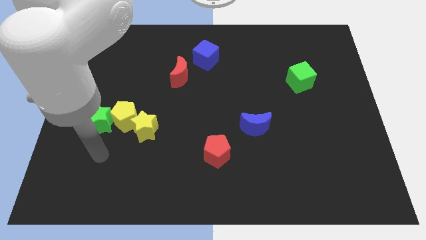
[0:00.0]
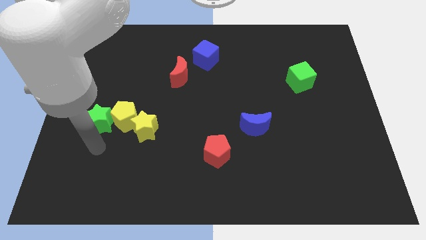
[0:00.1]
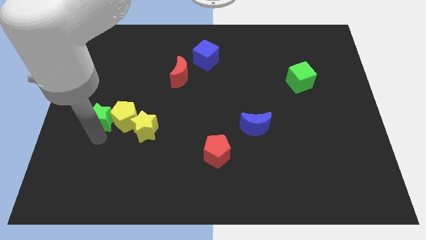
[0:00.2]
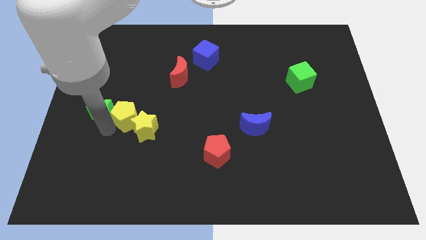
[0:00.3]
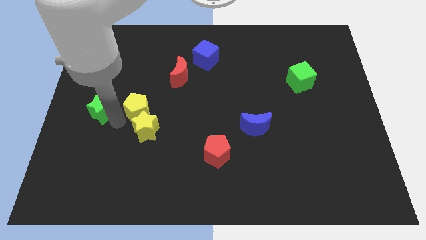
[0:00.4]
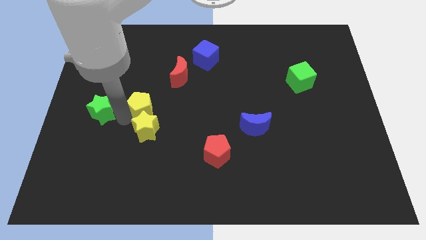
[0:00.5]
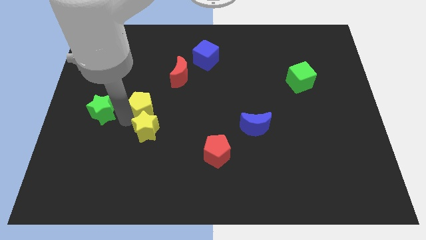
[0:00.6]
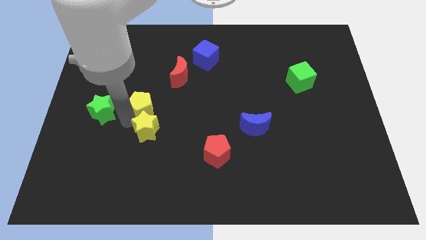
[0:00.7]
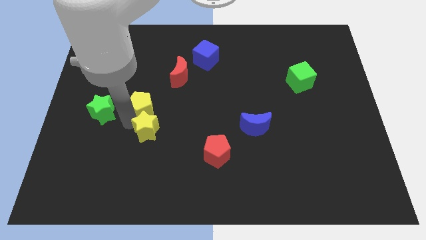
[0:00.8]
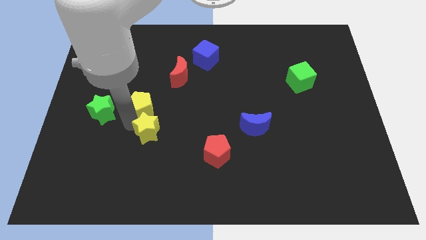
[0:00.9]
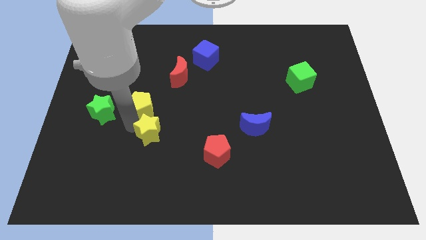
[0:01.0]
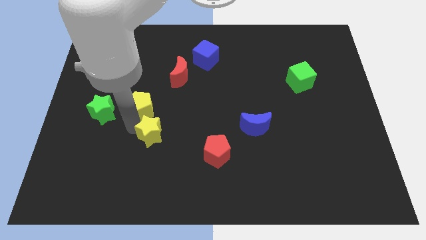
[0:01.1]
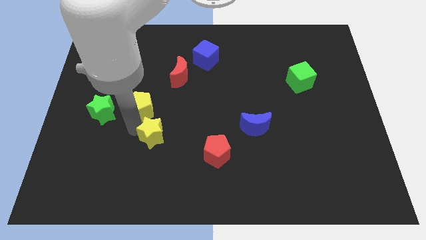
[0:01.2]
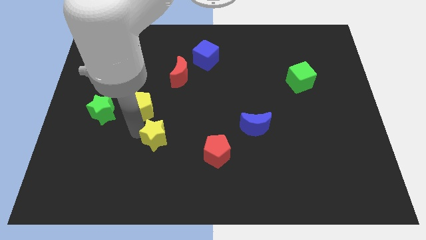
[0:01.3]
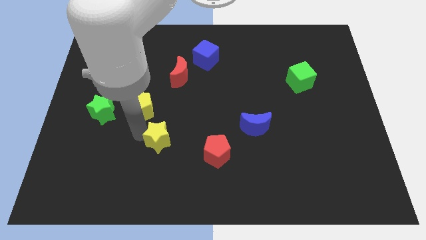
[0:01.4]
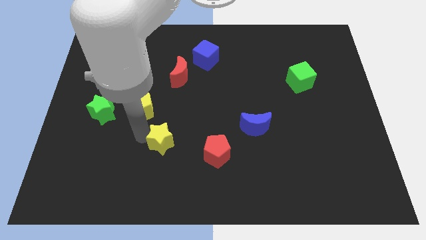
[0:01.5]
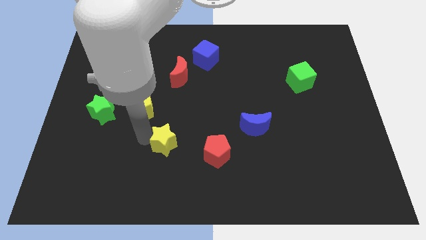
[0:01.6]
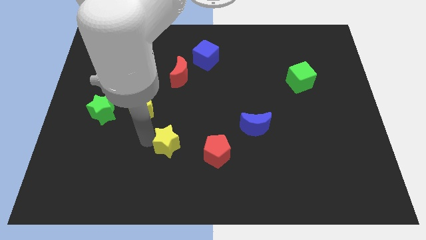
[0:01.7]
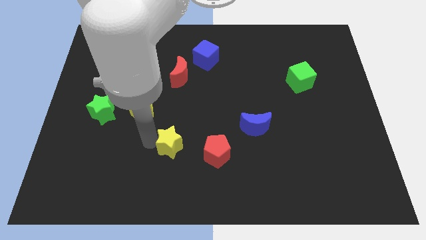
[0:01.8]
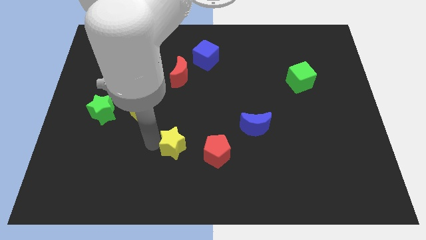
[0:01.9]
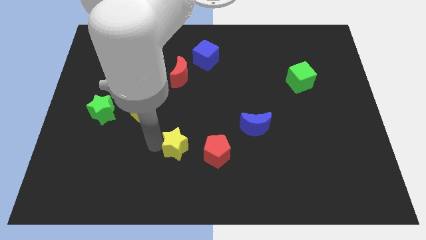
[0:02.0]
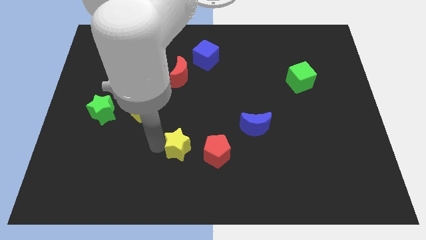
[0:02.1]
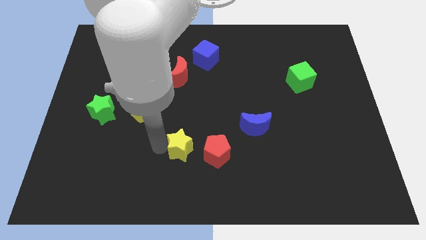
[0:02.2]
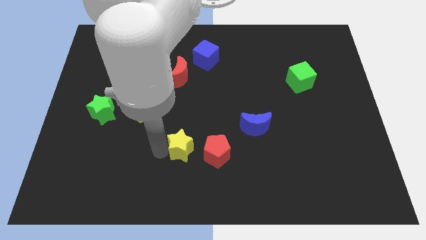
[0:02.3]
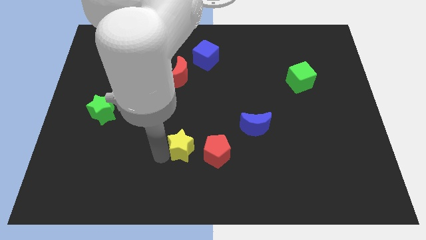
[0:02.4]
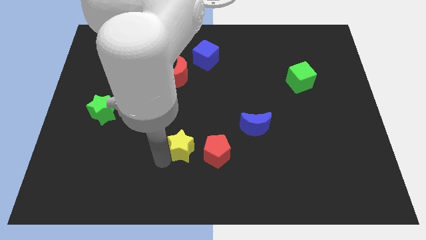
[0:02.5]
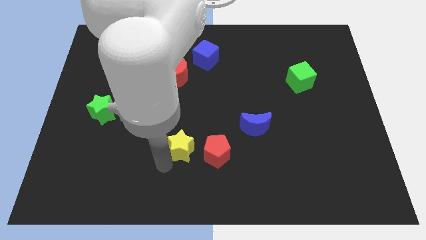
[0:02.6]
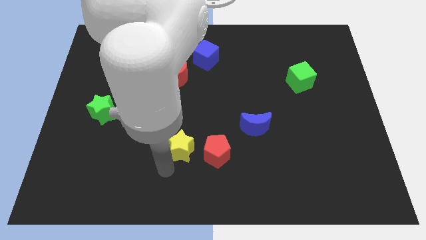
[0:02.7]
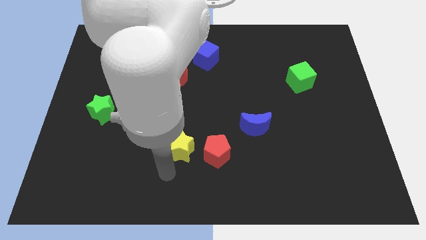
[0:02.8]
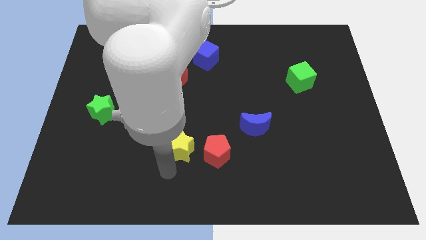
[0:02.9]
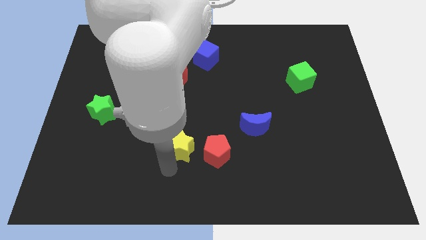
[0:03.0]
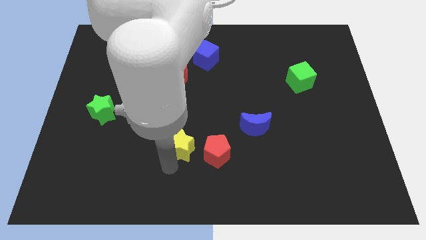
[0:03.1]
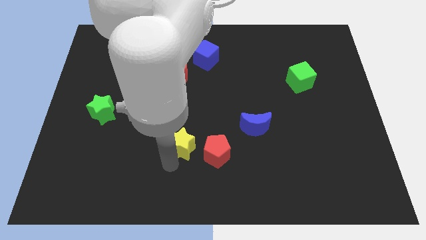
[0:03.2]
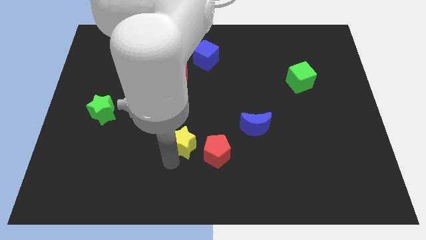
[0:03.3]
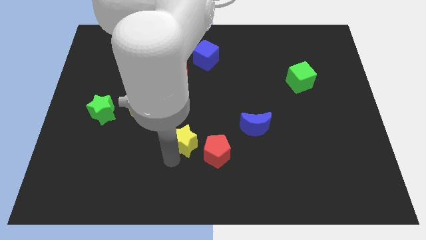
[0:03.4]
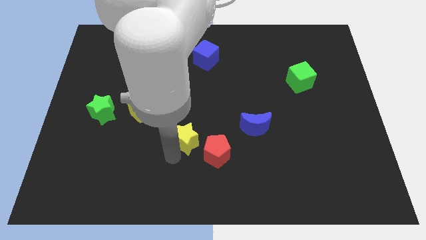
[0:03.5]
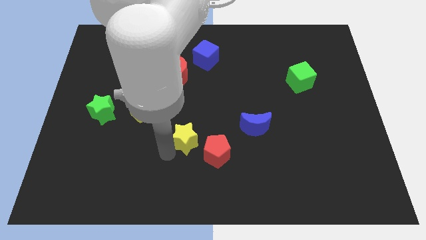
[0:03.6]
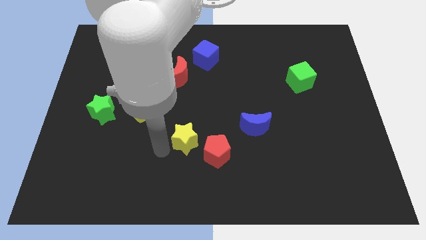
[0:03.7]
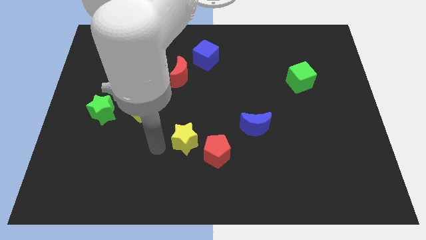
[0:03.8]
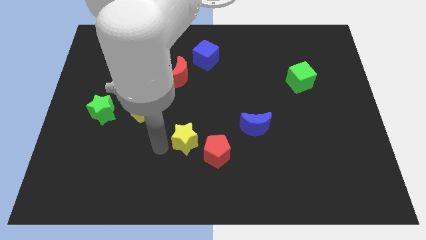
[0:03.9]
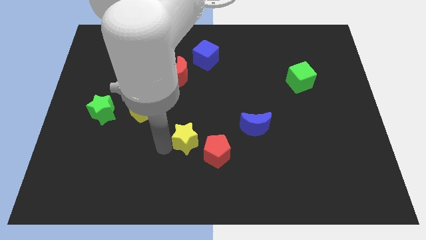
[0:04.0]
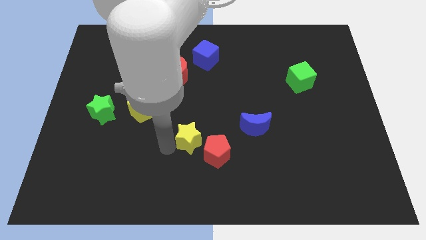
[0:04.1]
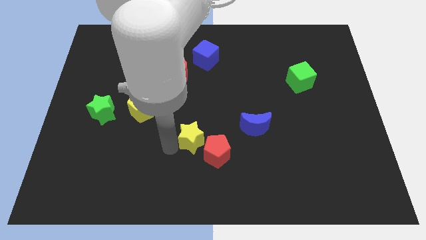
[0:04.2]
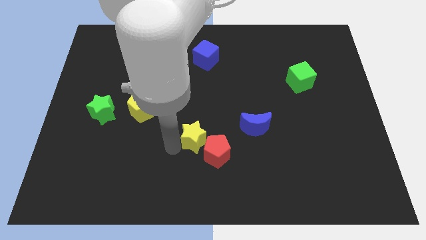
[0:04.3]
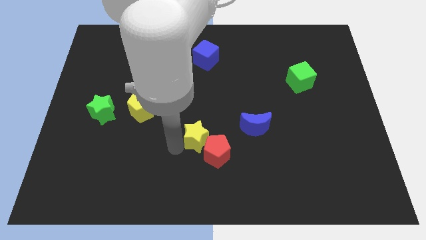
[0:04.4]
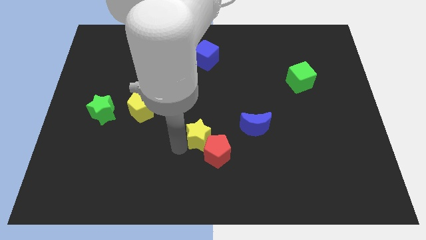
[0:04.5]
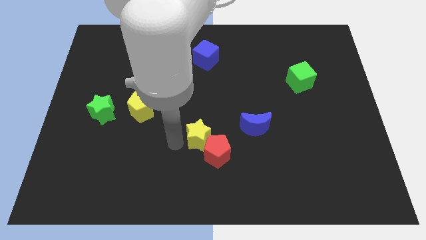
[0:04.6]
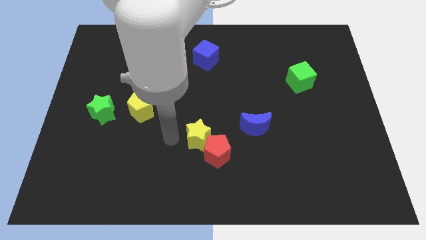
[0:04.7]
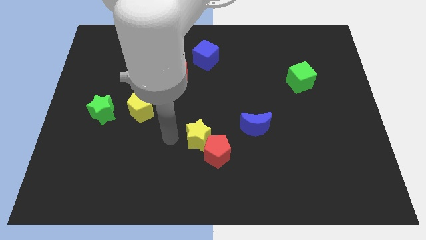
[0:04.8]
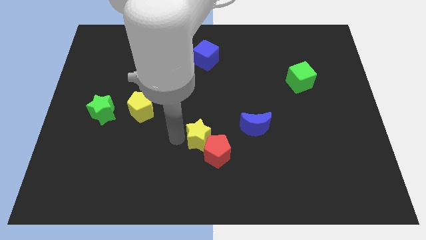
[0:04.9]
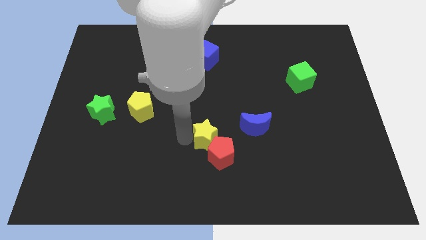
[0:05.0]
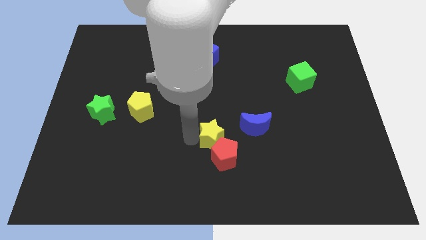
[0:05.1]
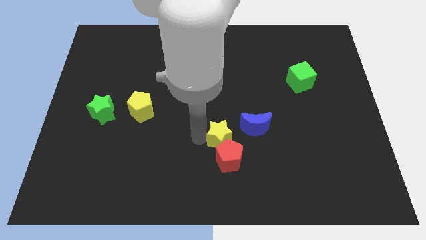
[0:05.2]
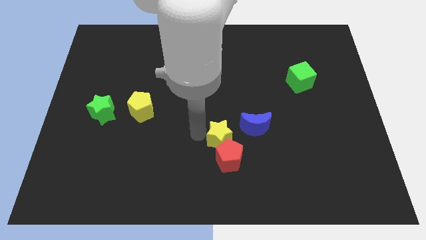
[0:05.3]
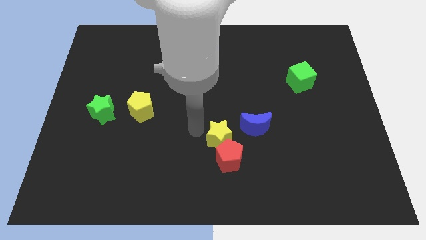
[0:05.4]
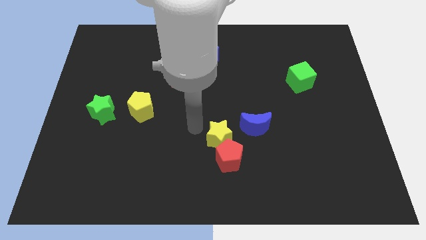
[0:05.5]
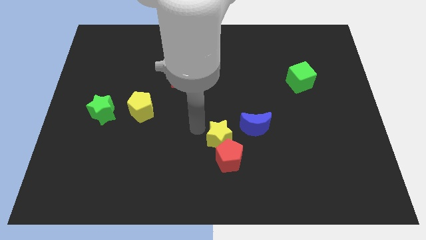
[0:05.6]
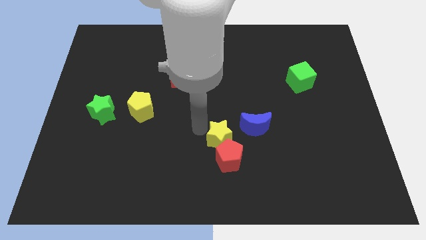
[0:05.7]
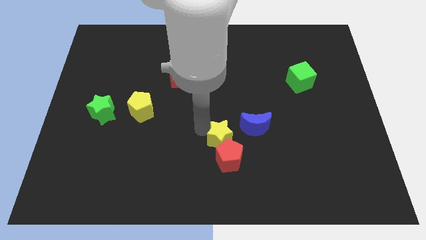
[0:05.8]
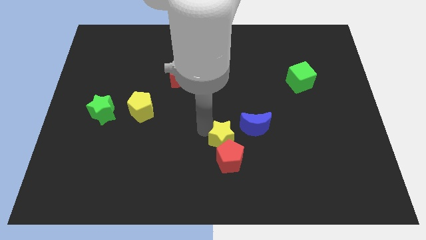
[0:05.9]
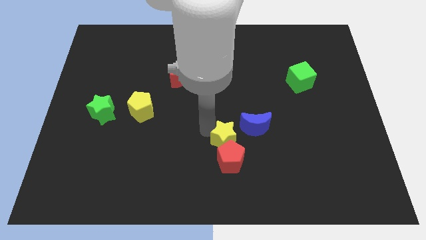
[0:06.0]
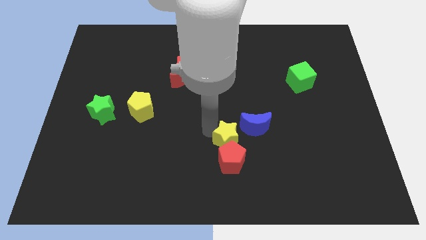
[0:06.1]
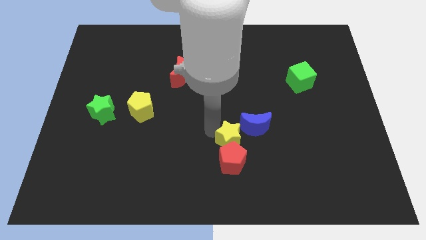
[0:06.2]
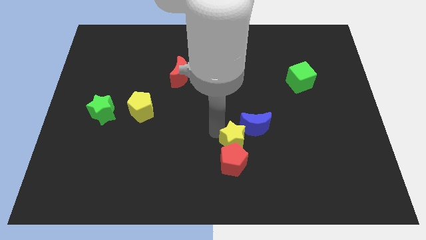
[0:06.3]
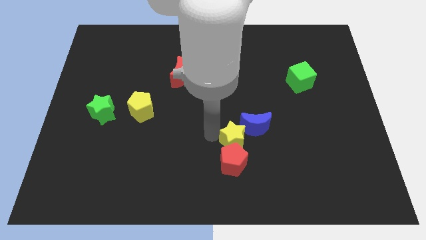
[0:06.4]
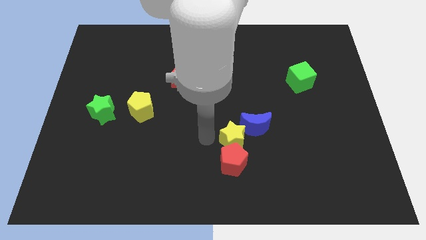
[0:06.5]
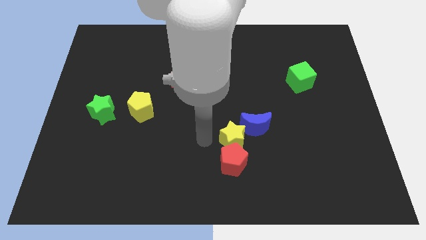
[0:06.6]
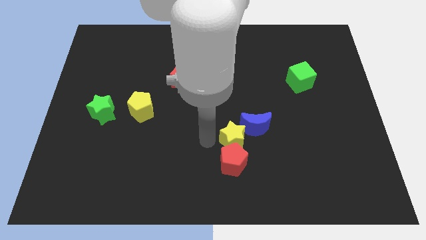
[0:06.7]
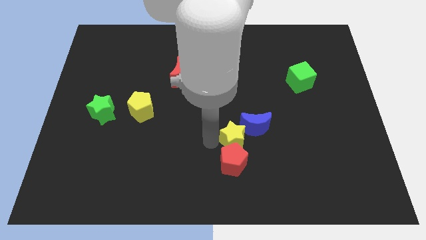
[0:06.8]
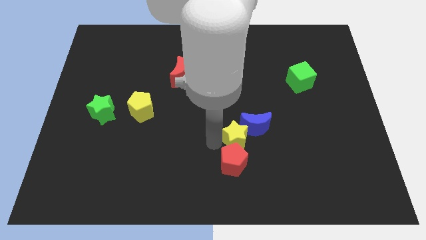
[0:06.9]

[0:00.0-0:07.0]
slide the yellow star to the right

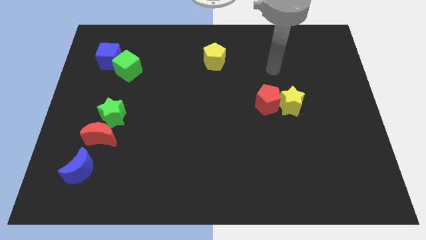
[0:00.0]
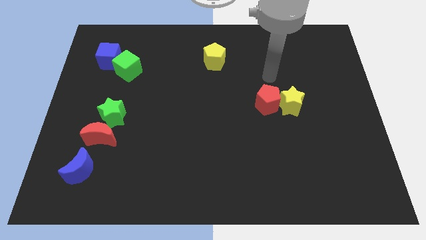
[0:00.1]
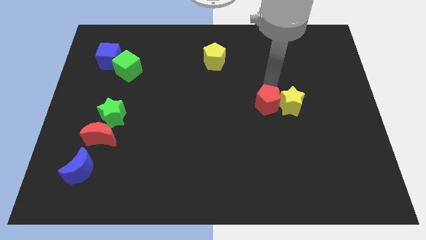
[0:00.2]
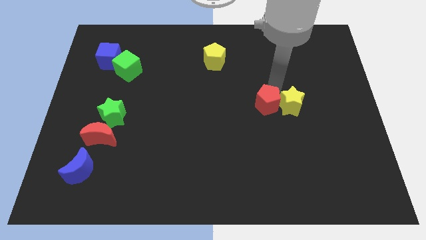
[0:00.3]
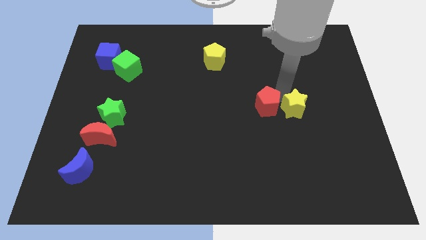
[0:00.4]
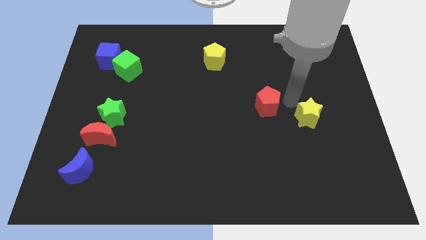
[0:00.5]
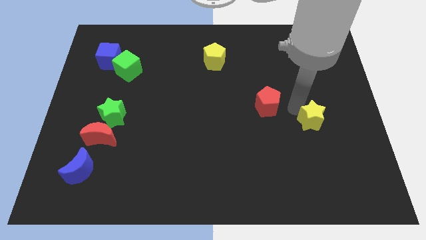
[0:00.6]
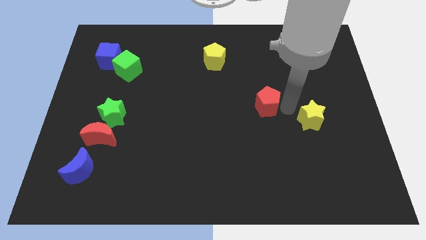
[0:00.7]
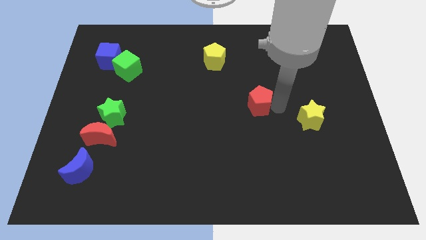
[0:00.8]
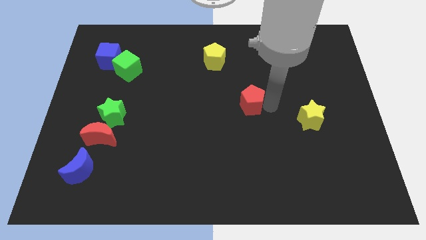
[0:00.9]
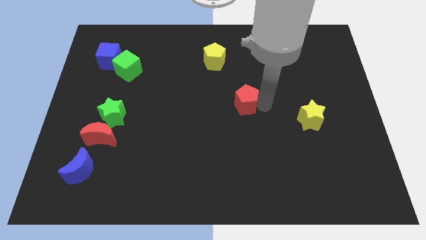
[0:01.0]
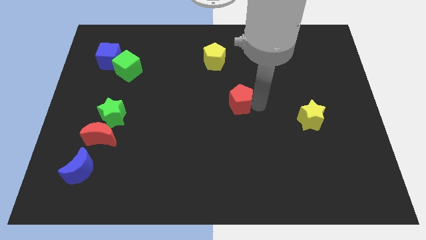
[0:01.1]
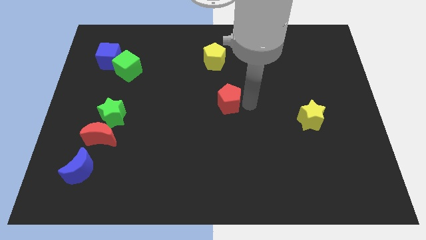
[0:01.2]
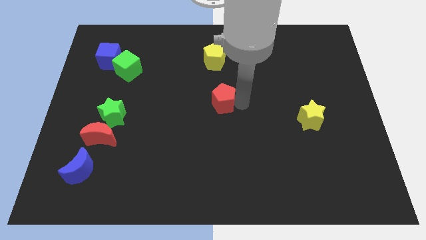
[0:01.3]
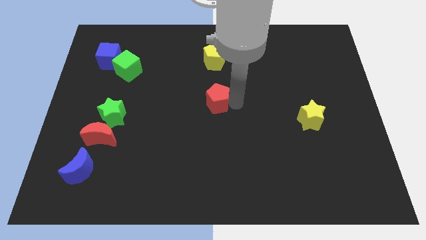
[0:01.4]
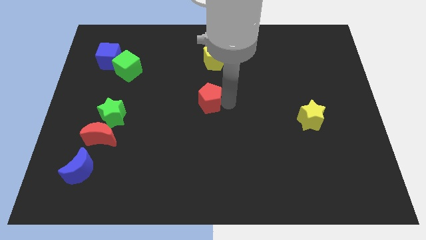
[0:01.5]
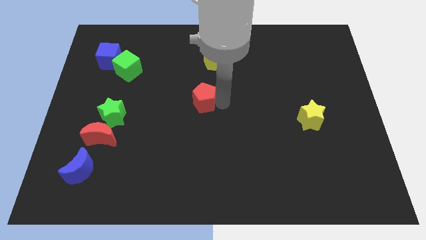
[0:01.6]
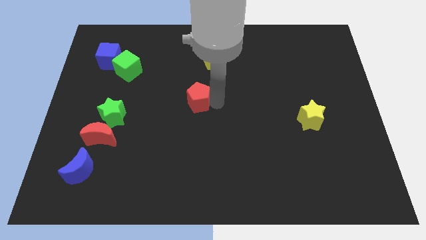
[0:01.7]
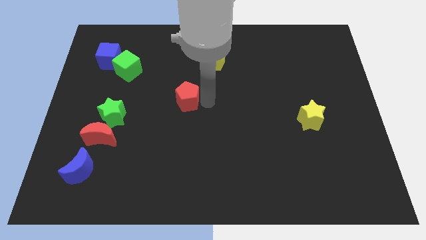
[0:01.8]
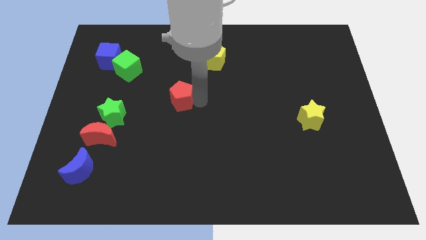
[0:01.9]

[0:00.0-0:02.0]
move the red pentagon to the left
